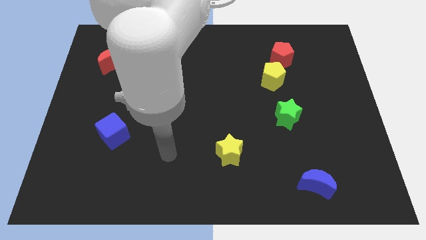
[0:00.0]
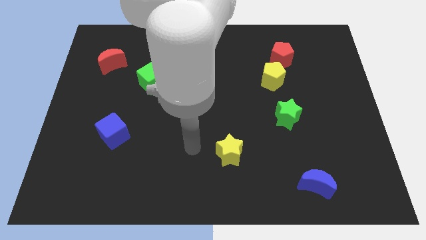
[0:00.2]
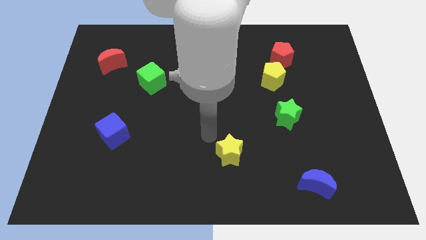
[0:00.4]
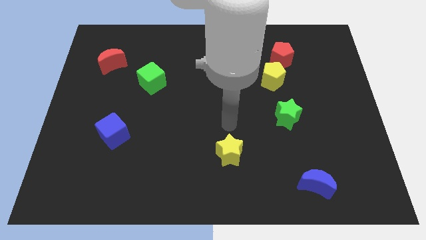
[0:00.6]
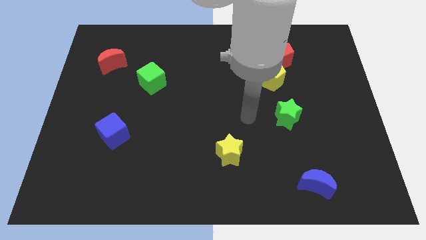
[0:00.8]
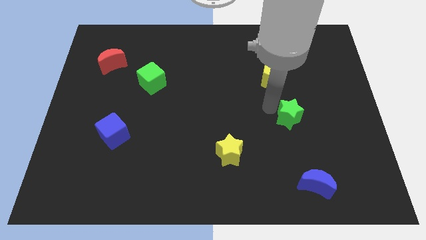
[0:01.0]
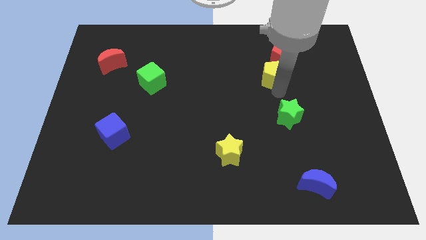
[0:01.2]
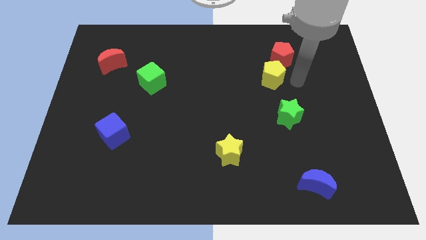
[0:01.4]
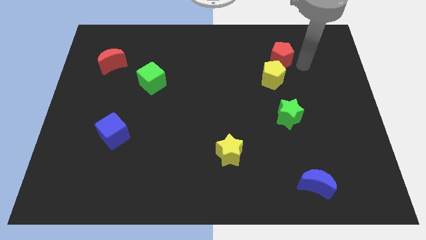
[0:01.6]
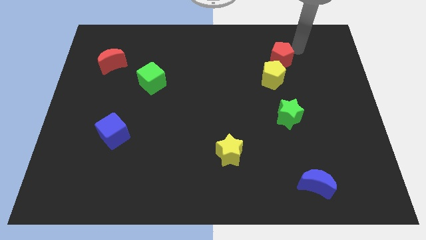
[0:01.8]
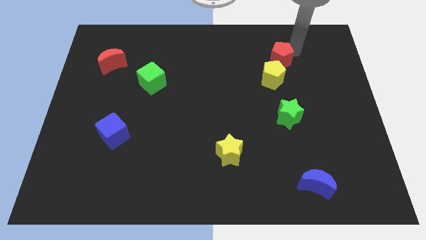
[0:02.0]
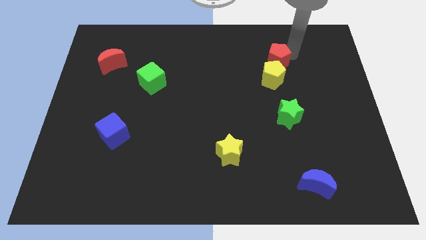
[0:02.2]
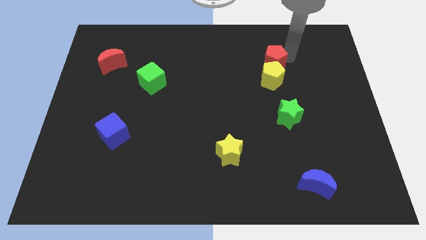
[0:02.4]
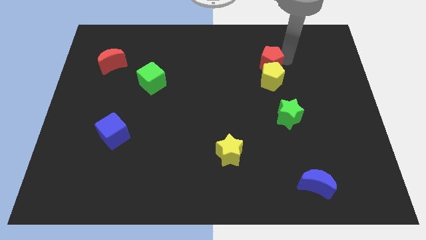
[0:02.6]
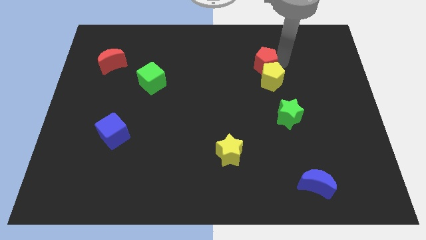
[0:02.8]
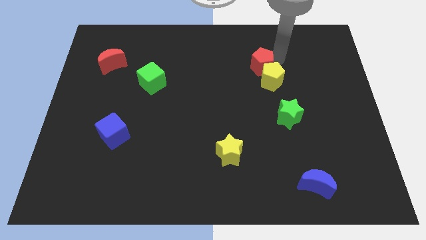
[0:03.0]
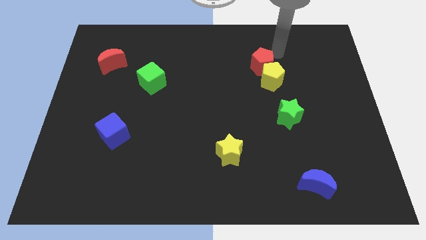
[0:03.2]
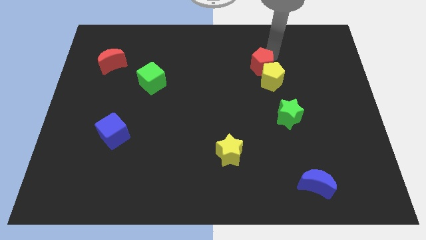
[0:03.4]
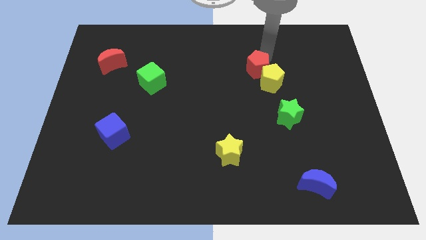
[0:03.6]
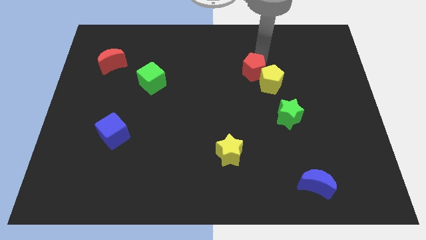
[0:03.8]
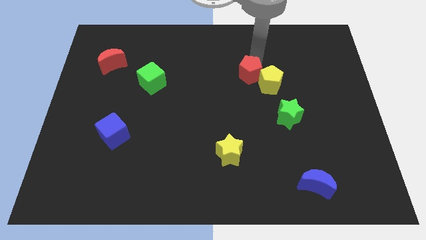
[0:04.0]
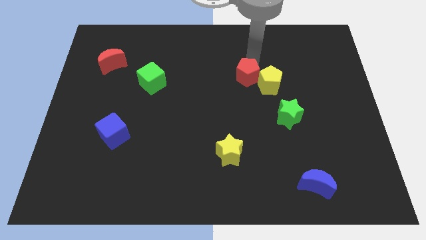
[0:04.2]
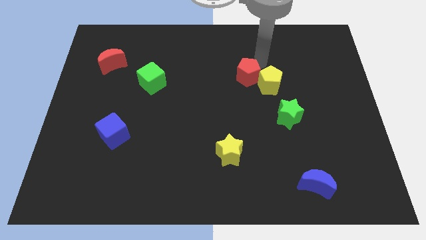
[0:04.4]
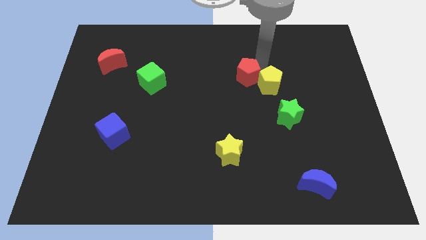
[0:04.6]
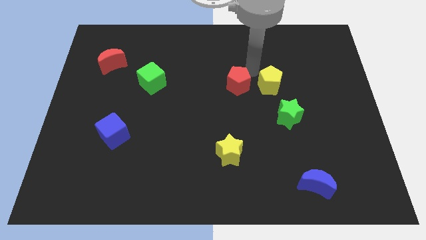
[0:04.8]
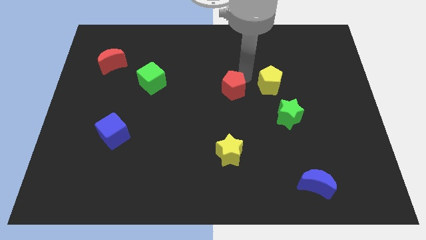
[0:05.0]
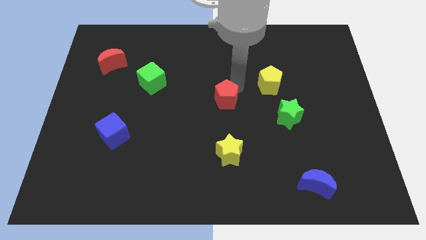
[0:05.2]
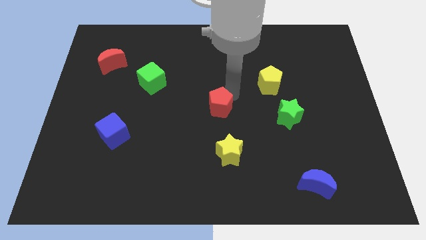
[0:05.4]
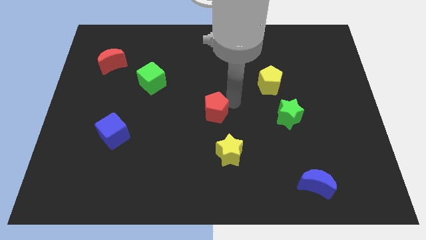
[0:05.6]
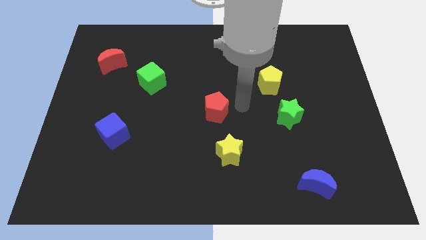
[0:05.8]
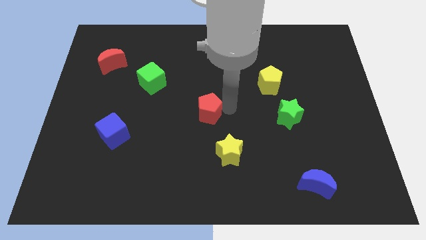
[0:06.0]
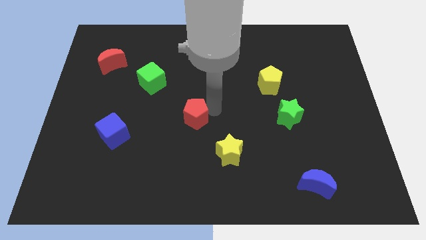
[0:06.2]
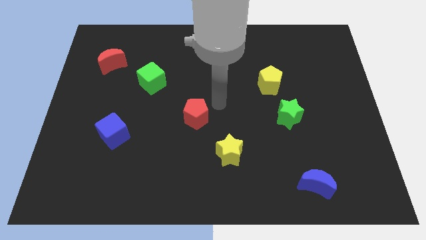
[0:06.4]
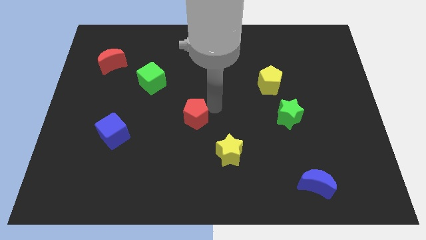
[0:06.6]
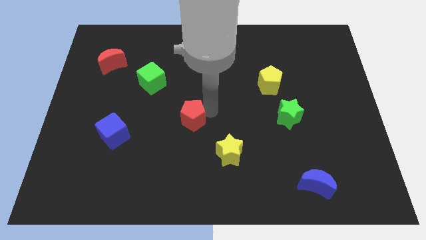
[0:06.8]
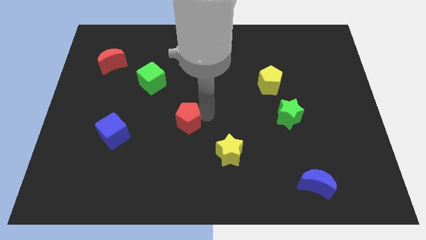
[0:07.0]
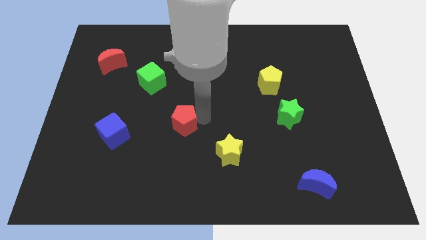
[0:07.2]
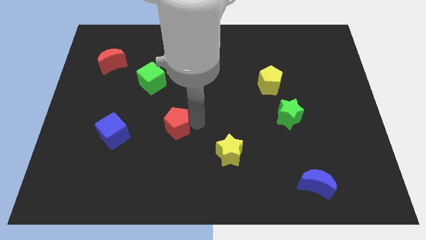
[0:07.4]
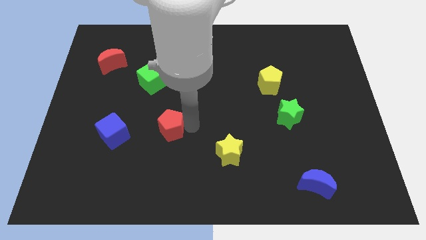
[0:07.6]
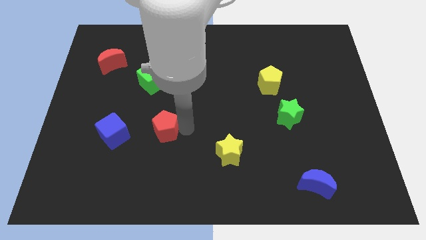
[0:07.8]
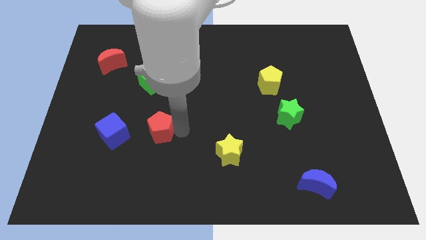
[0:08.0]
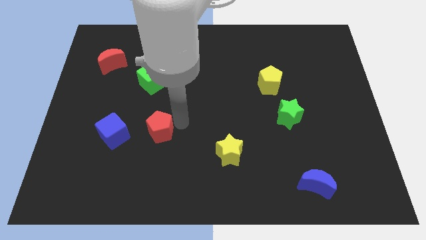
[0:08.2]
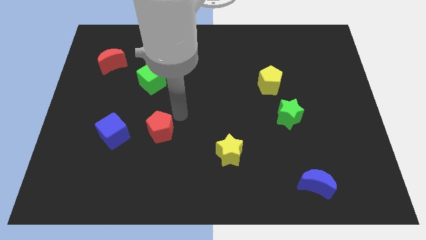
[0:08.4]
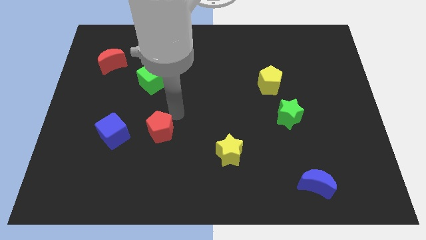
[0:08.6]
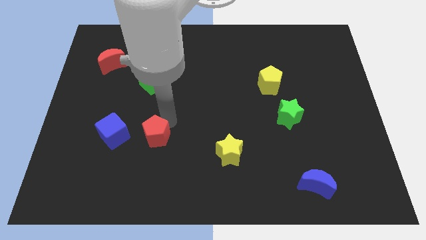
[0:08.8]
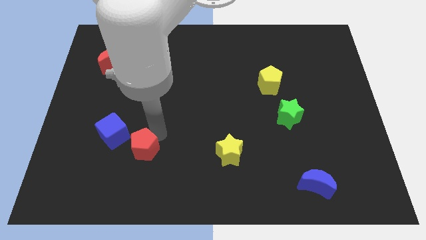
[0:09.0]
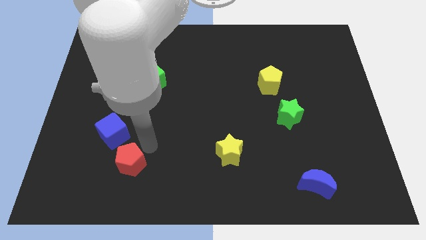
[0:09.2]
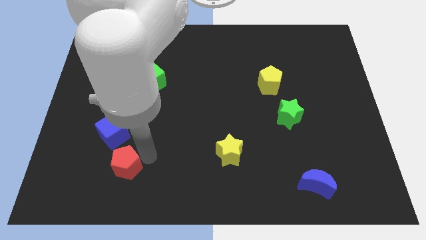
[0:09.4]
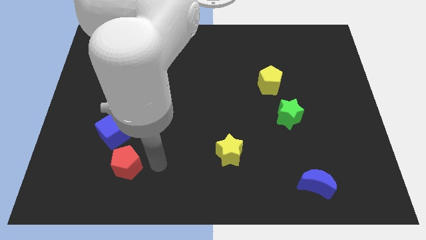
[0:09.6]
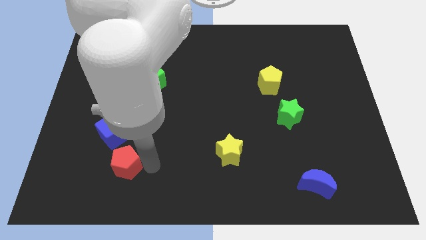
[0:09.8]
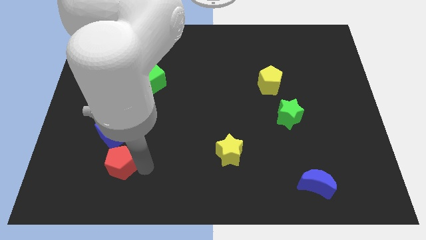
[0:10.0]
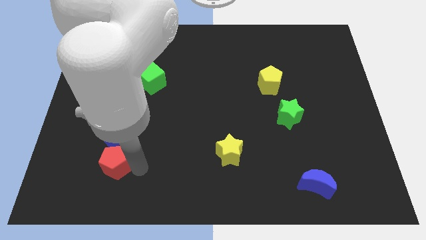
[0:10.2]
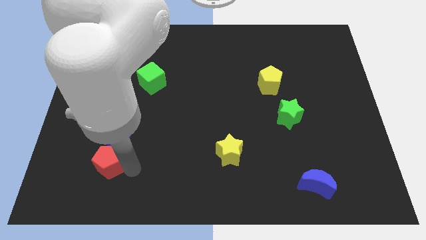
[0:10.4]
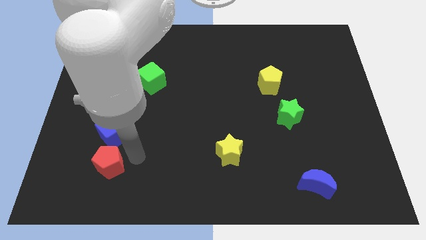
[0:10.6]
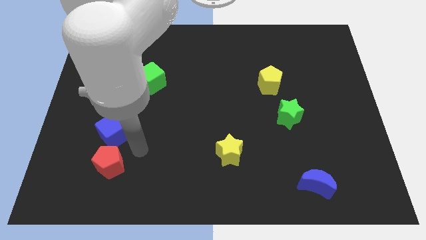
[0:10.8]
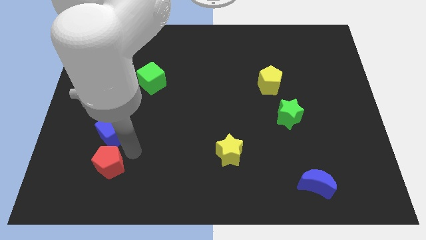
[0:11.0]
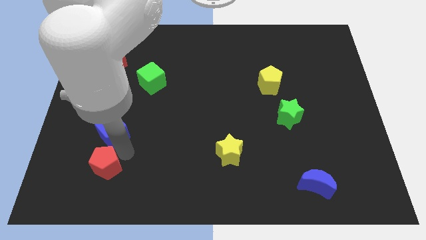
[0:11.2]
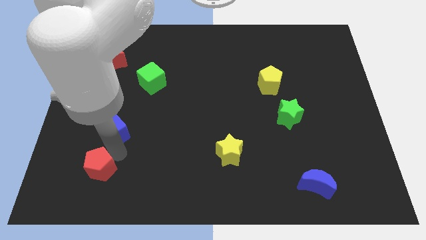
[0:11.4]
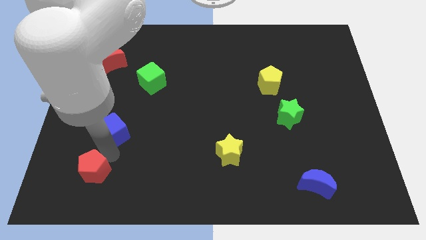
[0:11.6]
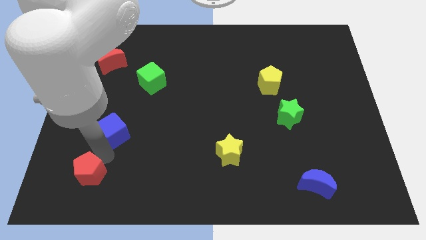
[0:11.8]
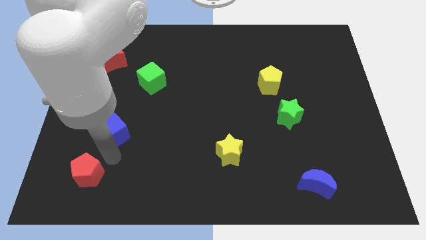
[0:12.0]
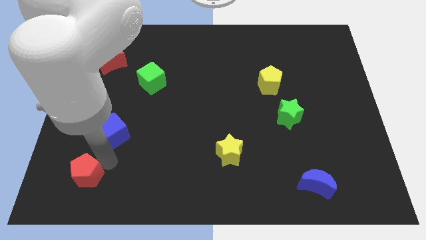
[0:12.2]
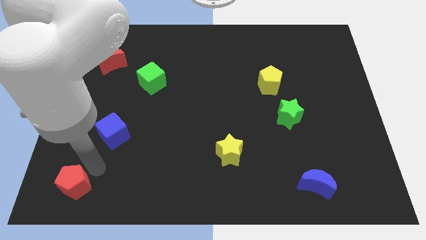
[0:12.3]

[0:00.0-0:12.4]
slide the red pentagon to the bottom left corner
